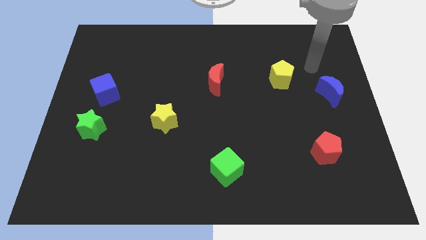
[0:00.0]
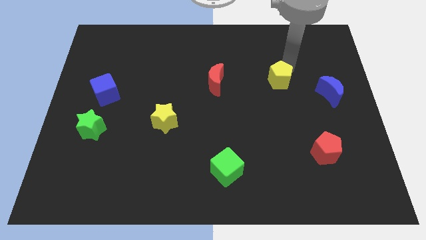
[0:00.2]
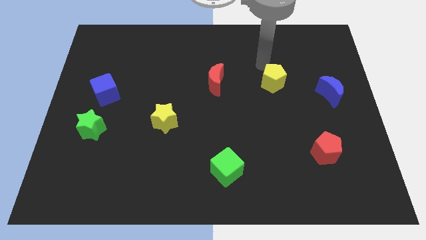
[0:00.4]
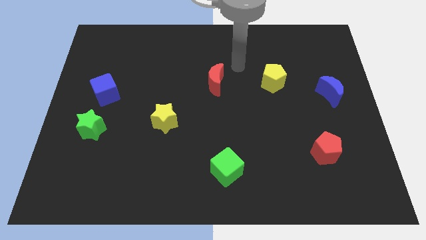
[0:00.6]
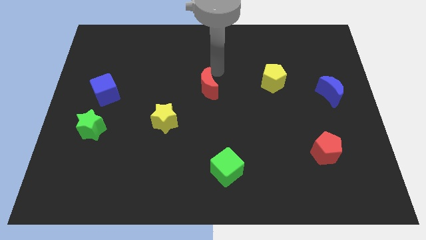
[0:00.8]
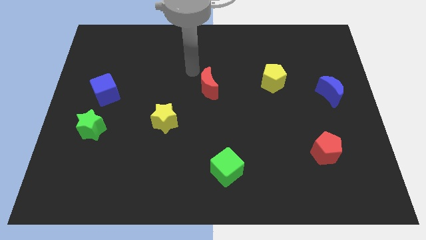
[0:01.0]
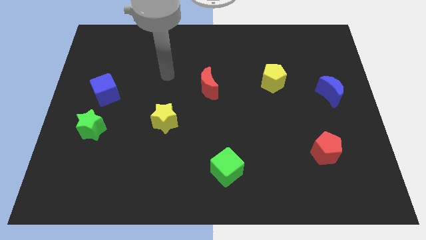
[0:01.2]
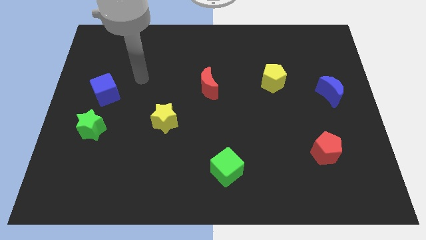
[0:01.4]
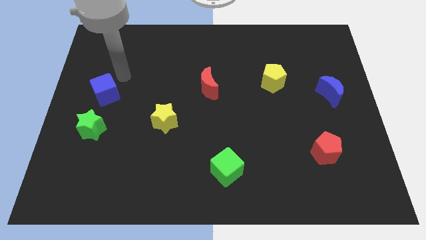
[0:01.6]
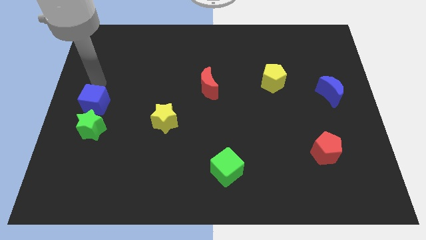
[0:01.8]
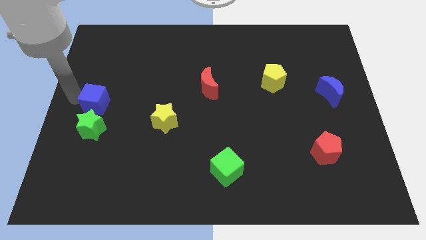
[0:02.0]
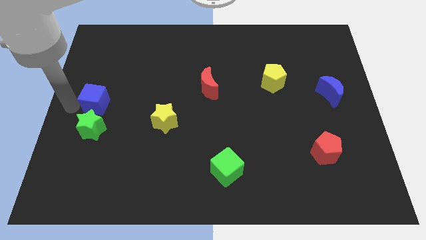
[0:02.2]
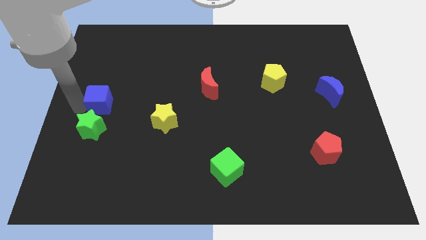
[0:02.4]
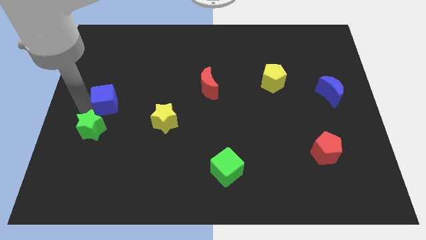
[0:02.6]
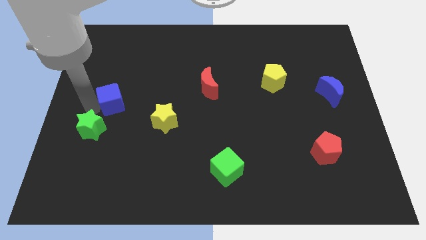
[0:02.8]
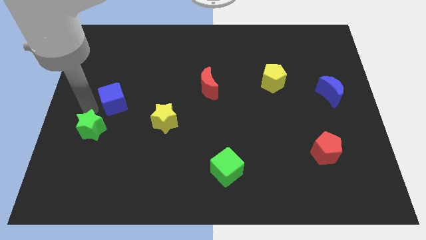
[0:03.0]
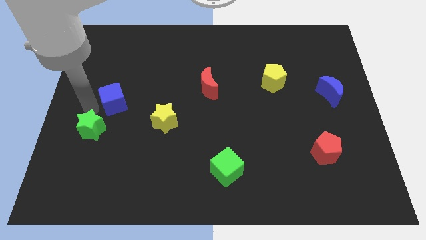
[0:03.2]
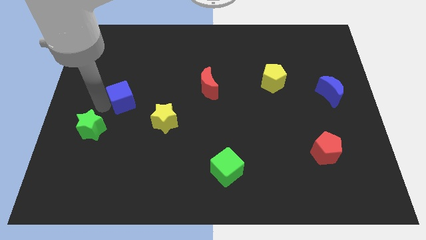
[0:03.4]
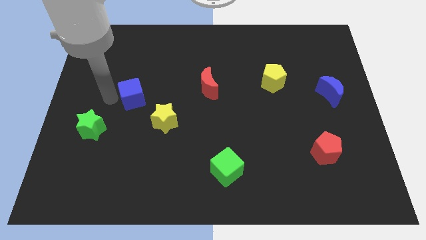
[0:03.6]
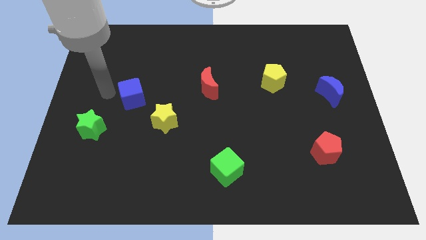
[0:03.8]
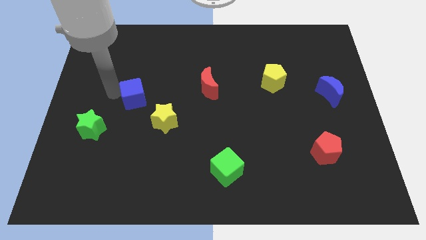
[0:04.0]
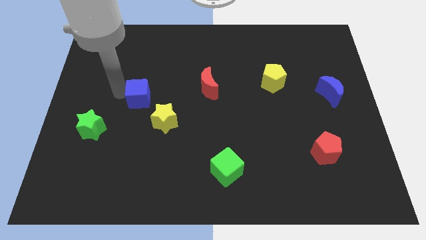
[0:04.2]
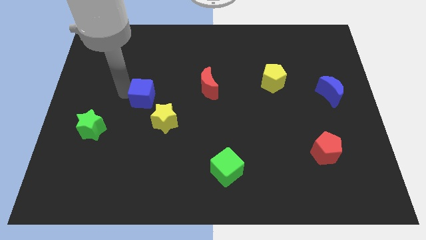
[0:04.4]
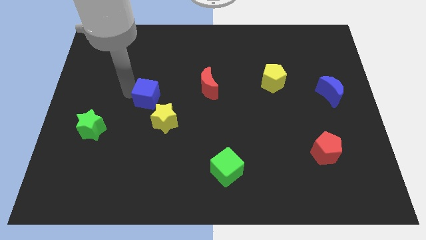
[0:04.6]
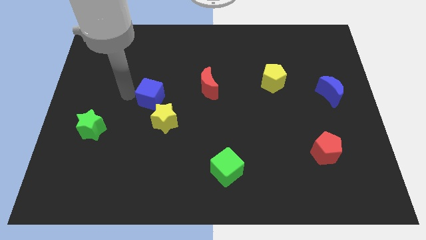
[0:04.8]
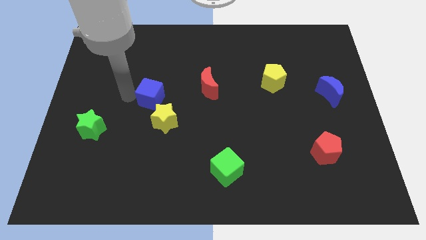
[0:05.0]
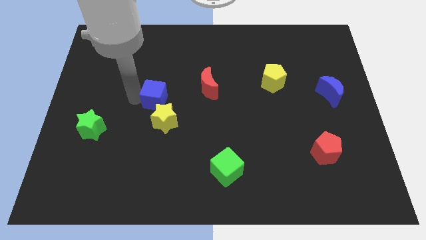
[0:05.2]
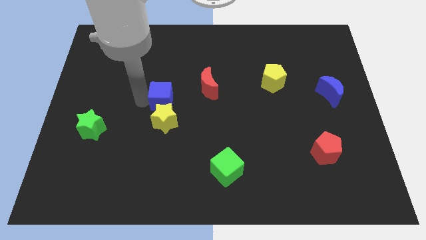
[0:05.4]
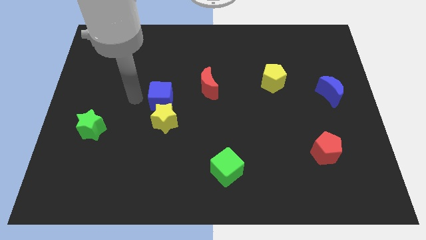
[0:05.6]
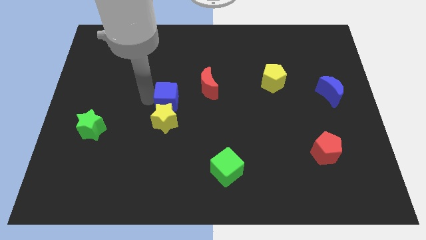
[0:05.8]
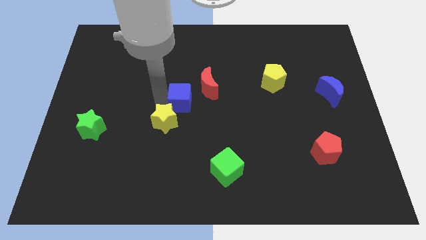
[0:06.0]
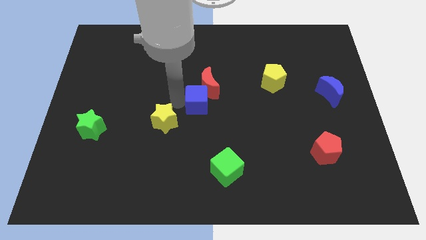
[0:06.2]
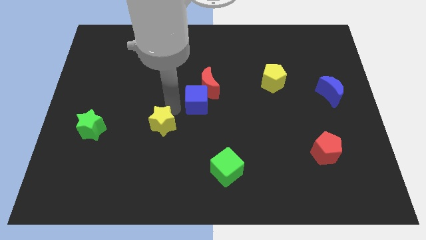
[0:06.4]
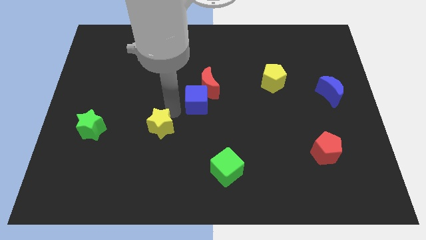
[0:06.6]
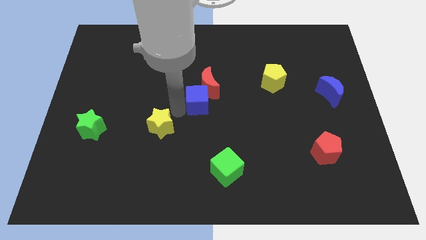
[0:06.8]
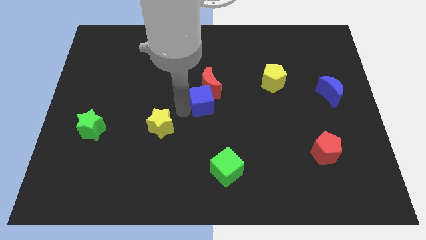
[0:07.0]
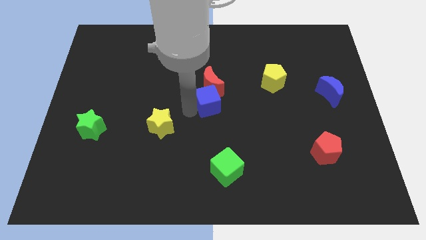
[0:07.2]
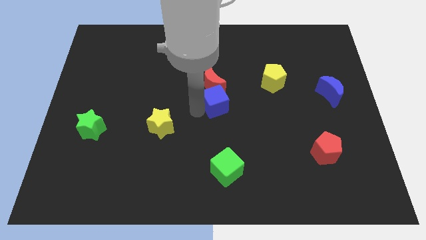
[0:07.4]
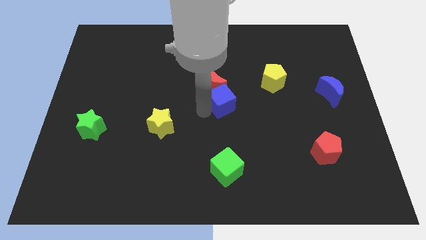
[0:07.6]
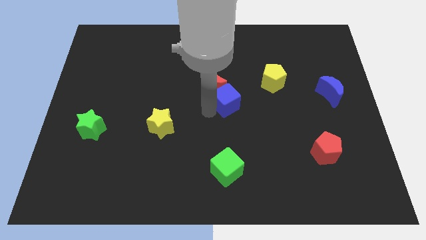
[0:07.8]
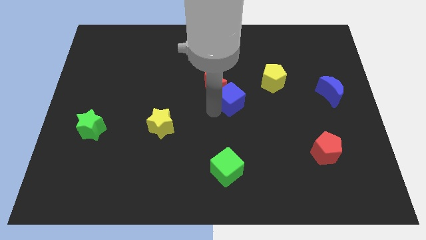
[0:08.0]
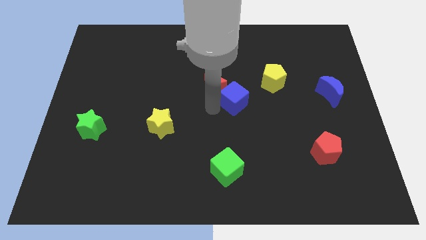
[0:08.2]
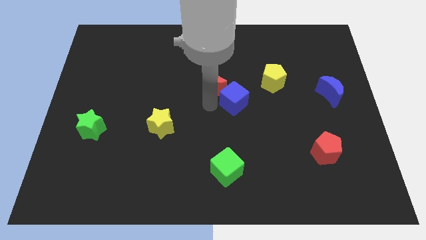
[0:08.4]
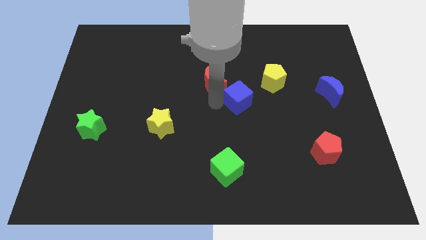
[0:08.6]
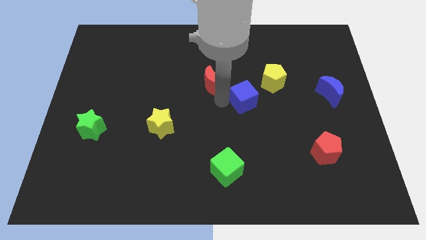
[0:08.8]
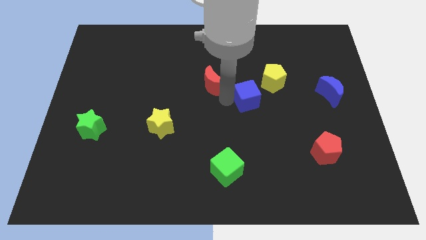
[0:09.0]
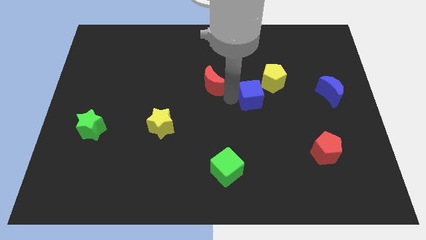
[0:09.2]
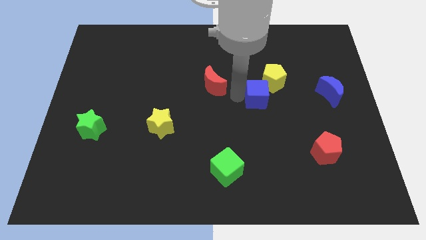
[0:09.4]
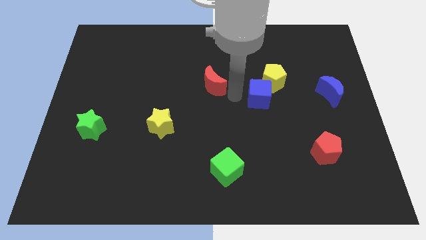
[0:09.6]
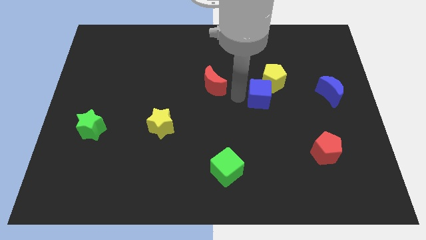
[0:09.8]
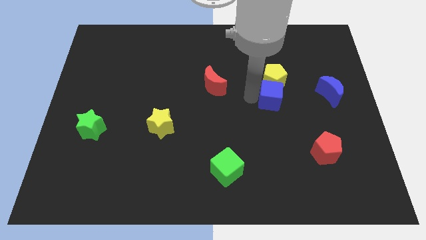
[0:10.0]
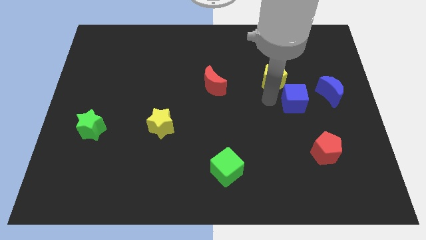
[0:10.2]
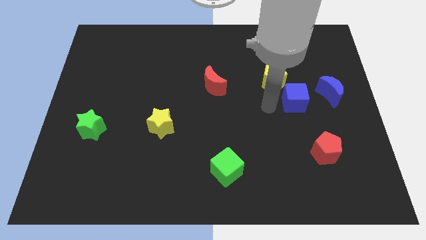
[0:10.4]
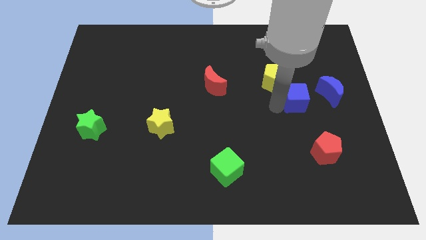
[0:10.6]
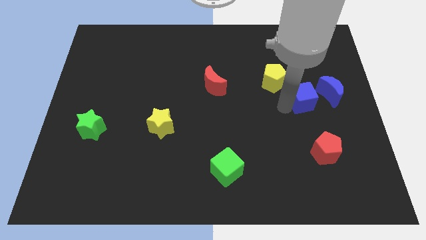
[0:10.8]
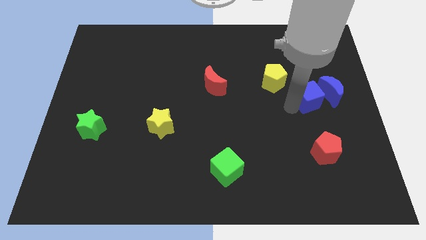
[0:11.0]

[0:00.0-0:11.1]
slide the blue cube next to the blue moon

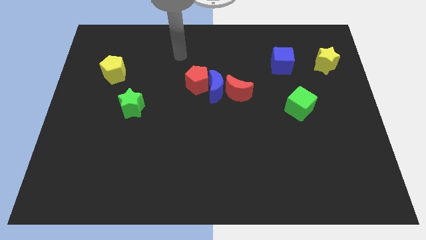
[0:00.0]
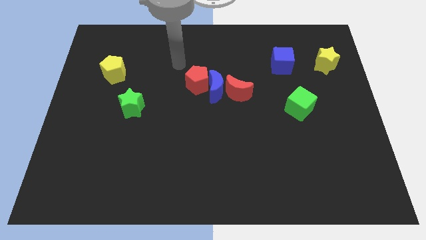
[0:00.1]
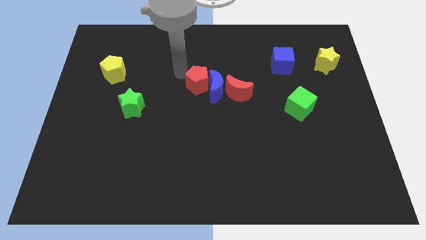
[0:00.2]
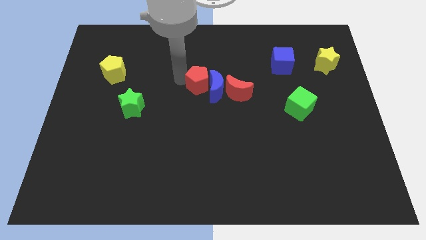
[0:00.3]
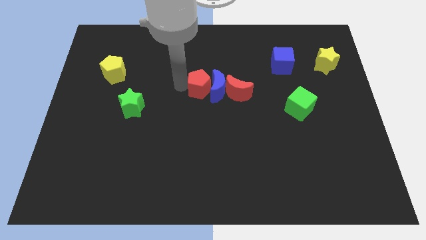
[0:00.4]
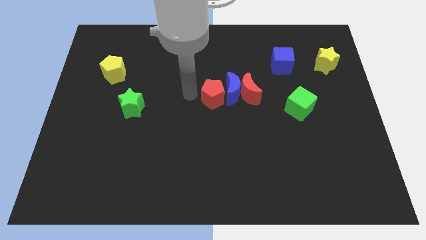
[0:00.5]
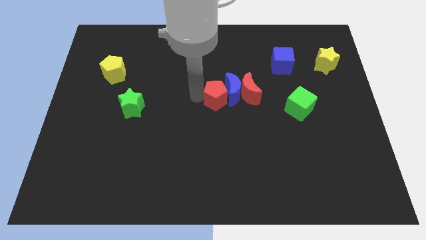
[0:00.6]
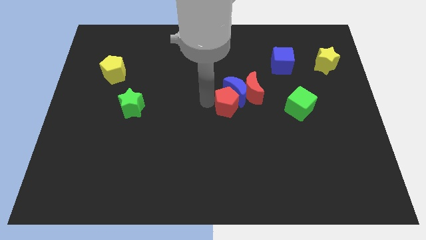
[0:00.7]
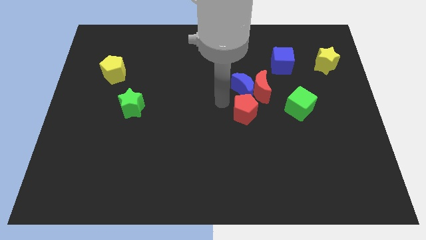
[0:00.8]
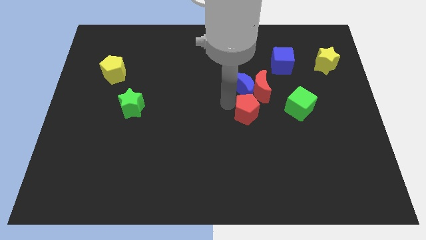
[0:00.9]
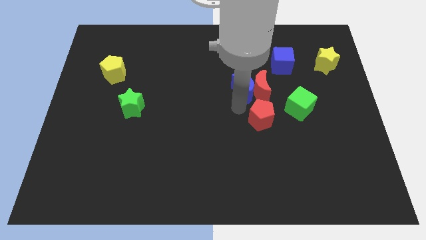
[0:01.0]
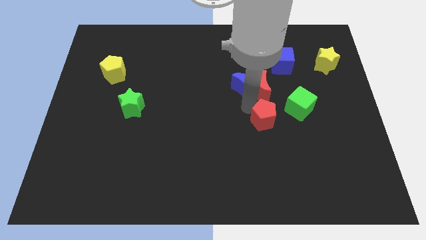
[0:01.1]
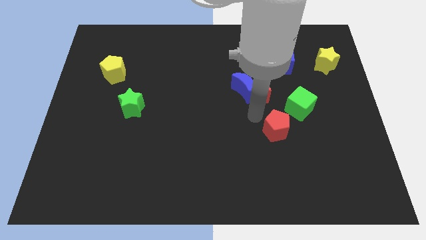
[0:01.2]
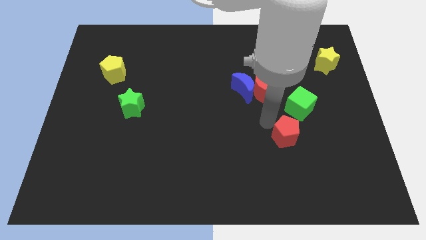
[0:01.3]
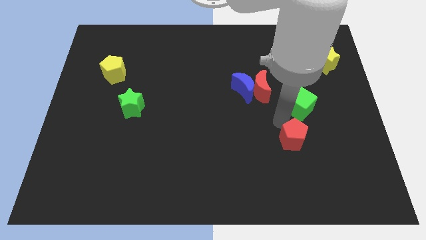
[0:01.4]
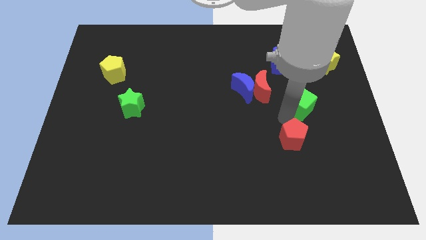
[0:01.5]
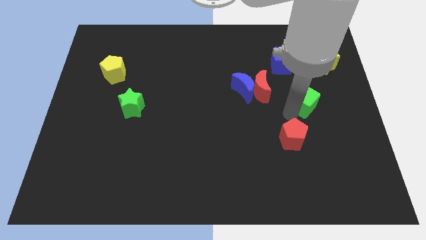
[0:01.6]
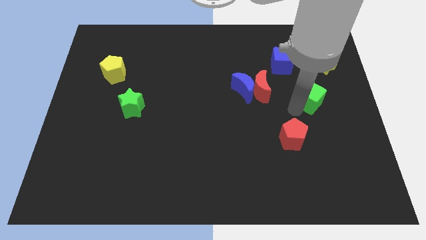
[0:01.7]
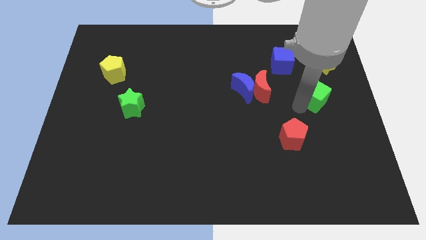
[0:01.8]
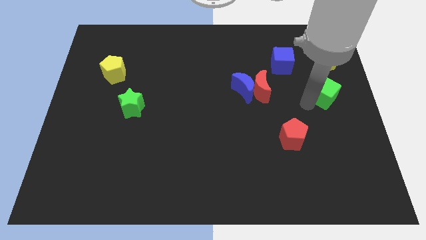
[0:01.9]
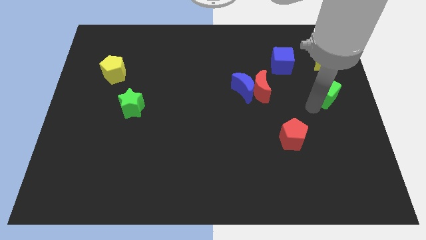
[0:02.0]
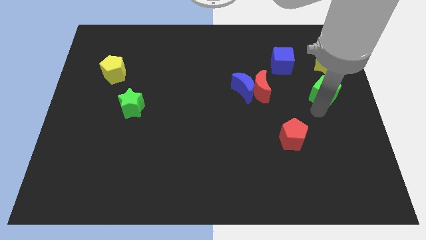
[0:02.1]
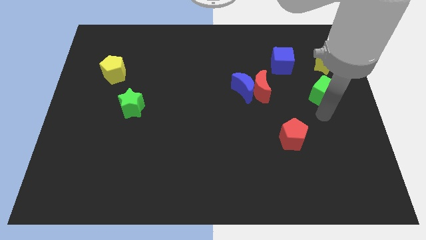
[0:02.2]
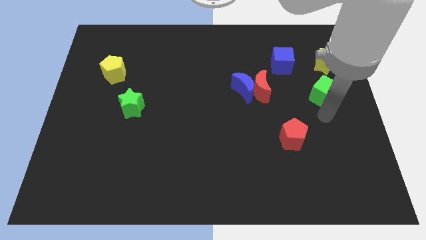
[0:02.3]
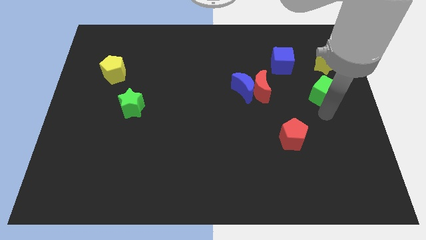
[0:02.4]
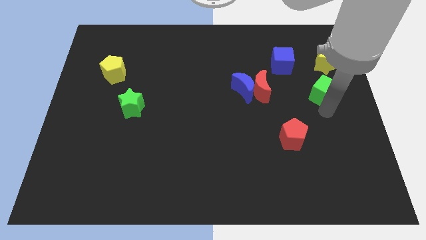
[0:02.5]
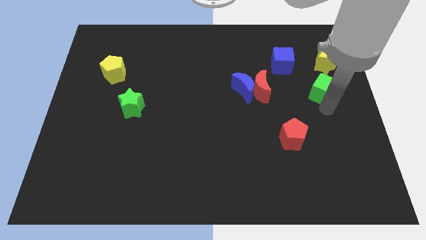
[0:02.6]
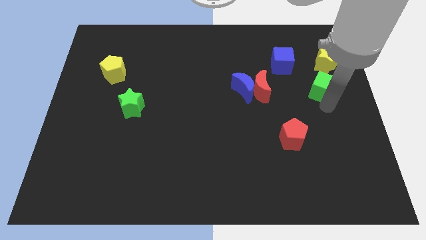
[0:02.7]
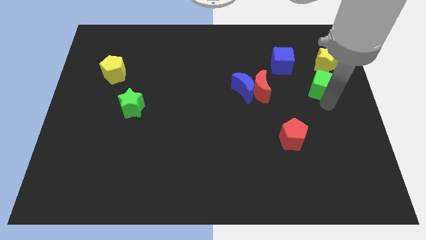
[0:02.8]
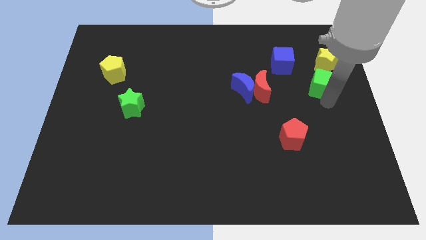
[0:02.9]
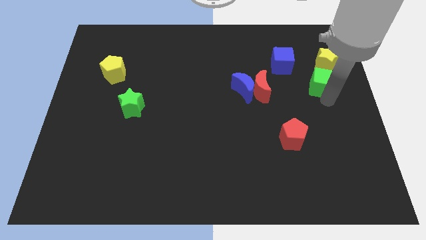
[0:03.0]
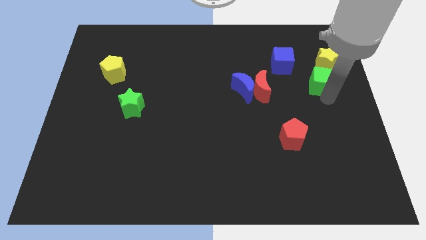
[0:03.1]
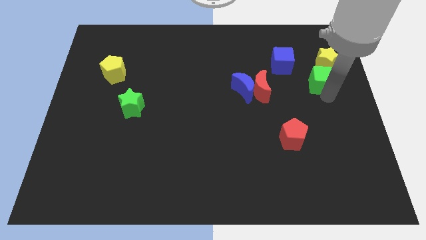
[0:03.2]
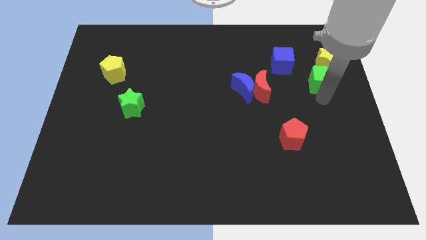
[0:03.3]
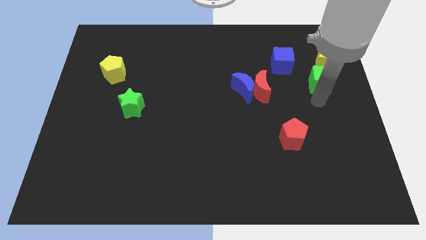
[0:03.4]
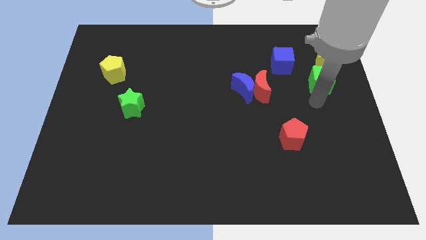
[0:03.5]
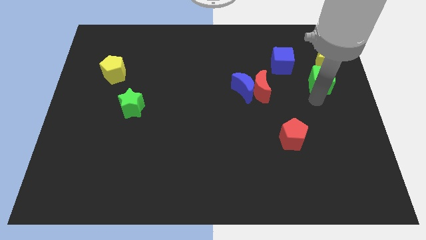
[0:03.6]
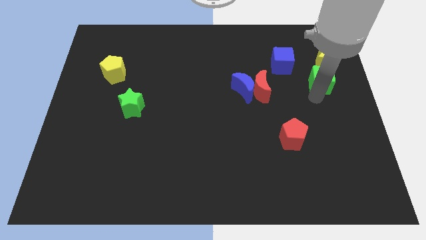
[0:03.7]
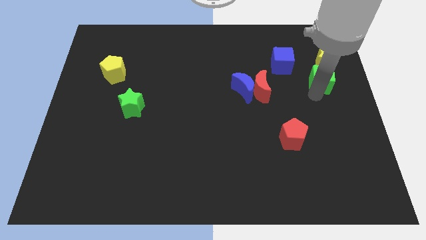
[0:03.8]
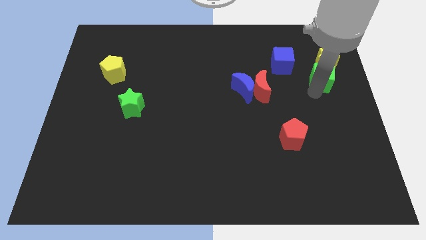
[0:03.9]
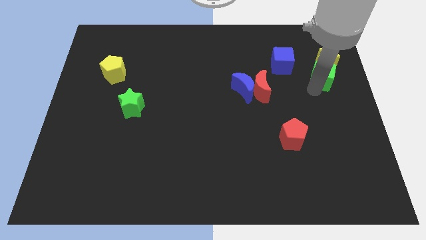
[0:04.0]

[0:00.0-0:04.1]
push the green cube close to the yellow star
